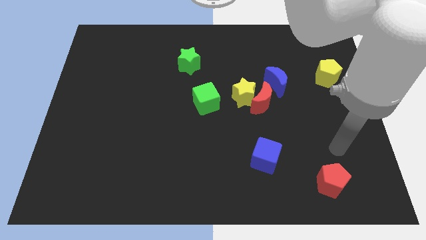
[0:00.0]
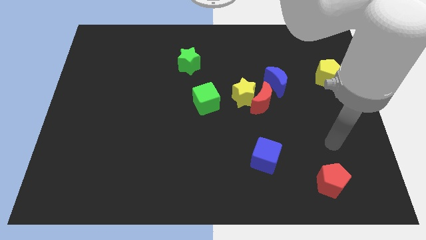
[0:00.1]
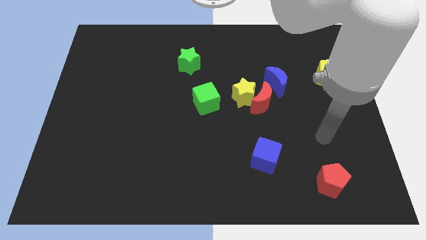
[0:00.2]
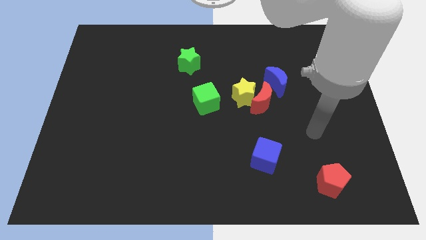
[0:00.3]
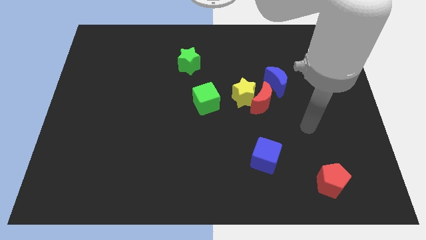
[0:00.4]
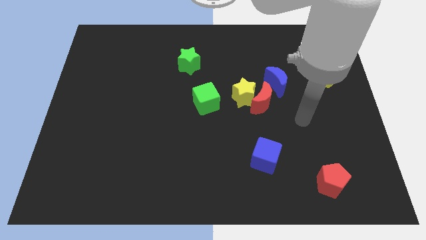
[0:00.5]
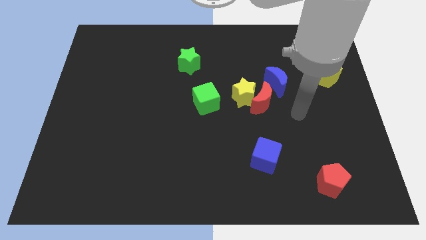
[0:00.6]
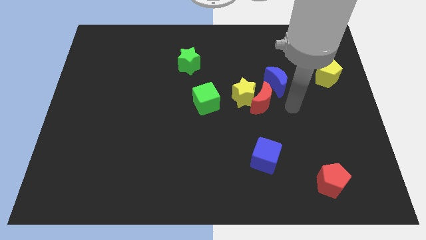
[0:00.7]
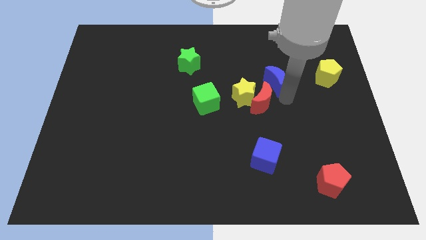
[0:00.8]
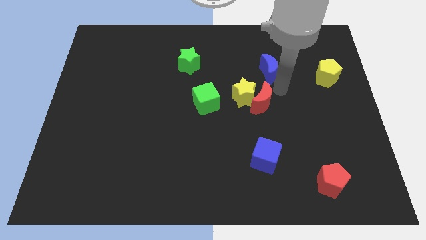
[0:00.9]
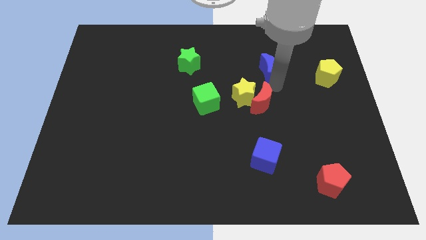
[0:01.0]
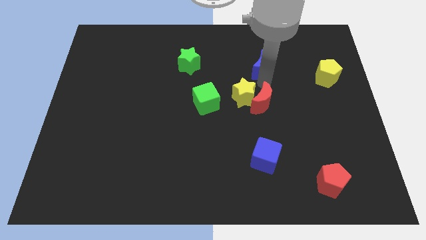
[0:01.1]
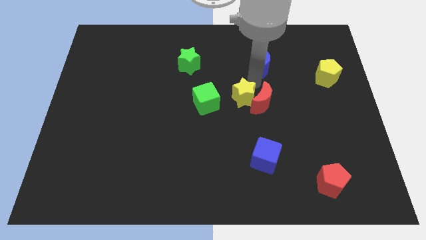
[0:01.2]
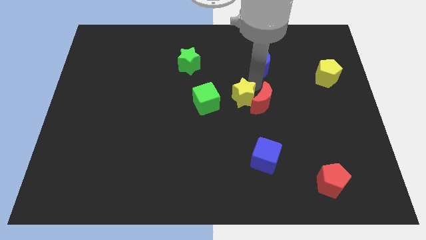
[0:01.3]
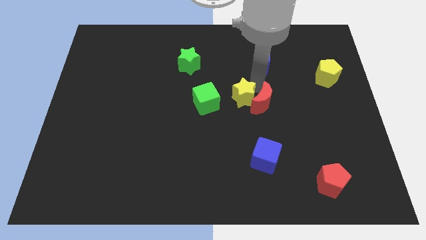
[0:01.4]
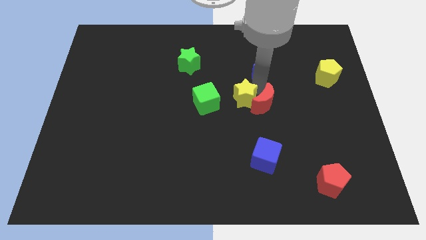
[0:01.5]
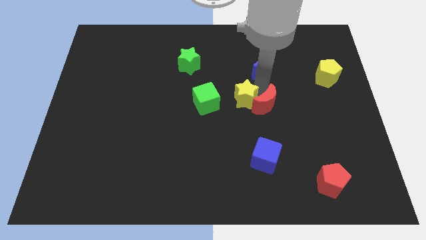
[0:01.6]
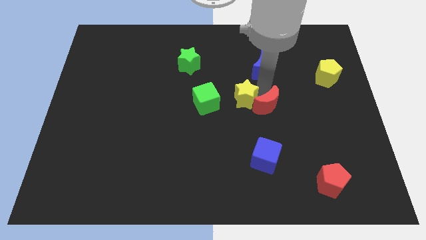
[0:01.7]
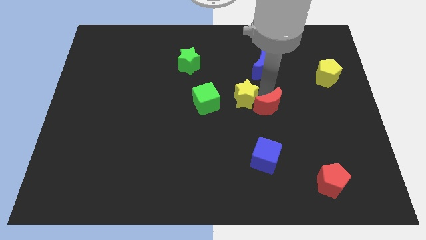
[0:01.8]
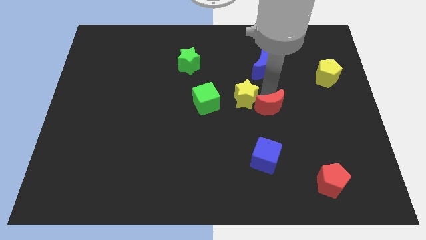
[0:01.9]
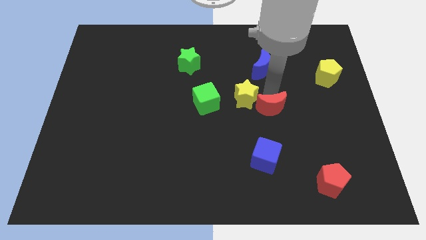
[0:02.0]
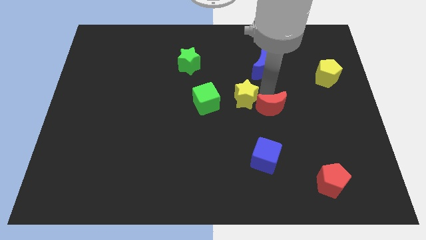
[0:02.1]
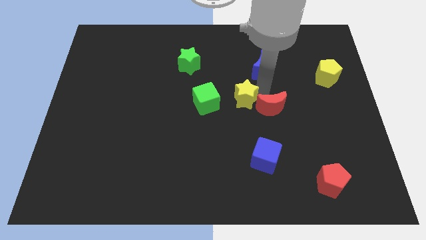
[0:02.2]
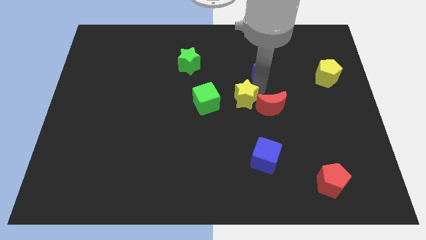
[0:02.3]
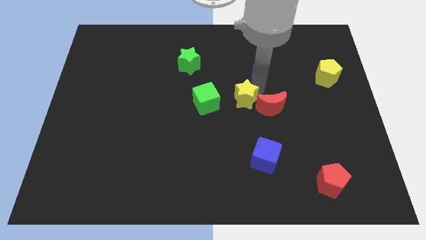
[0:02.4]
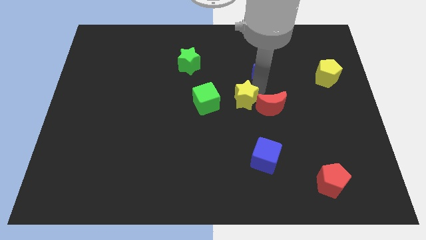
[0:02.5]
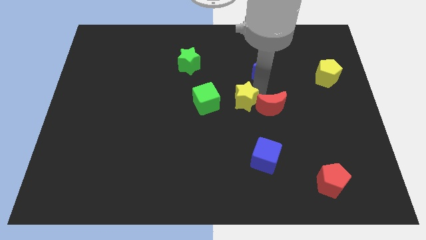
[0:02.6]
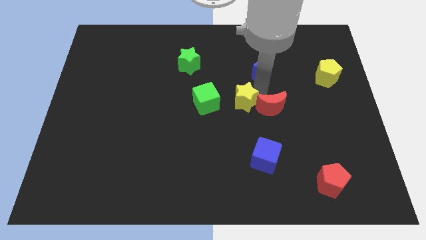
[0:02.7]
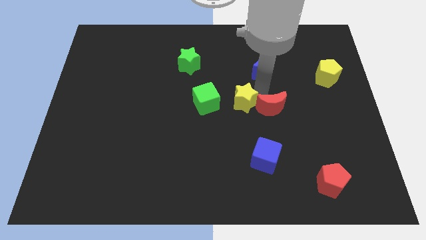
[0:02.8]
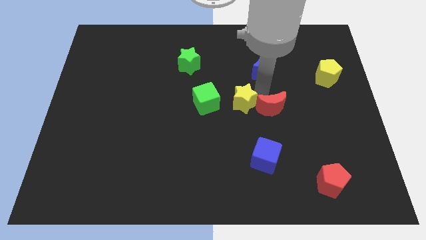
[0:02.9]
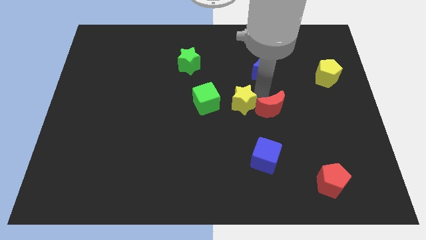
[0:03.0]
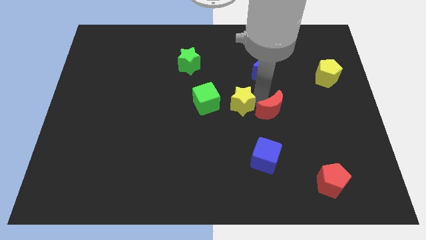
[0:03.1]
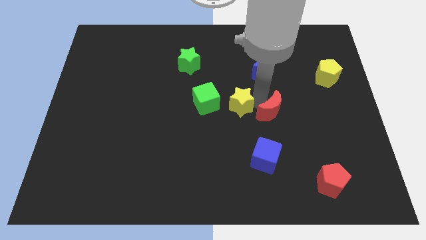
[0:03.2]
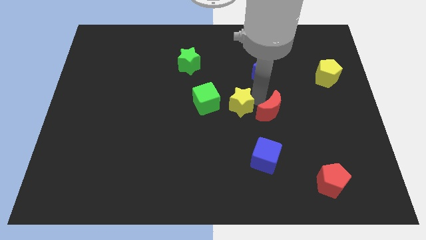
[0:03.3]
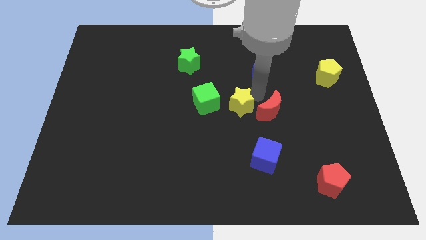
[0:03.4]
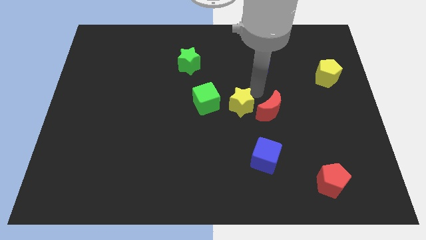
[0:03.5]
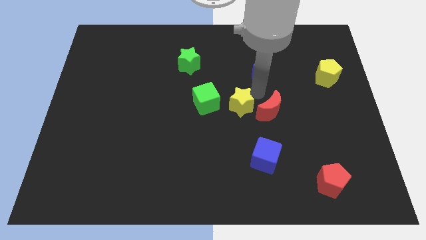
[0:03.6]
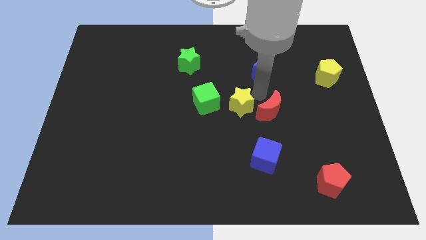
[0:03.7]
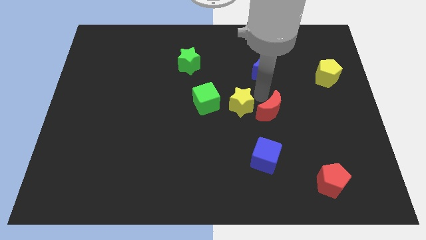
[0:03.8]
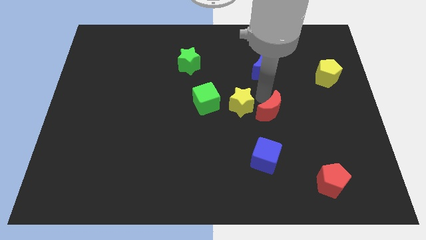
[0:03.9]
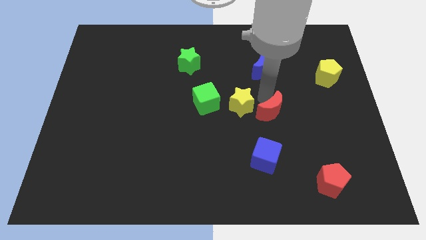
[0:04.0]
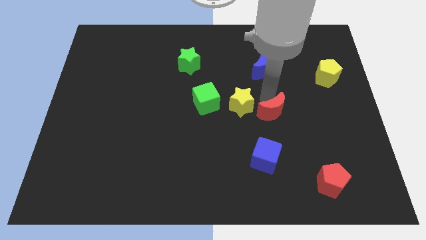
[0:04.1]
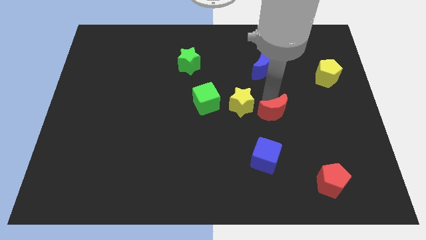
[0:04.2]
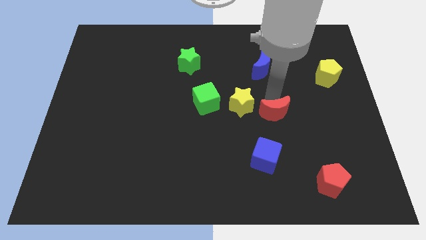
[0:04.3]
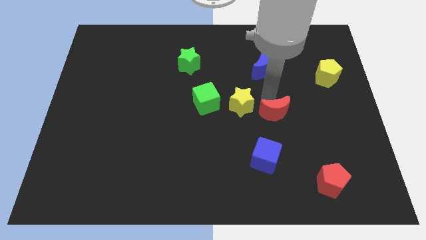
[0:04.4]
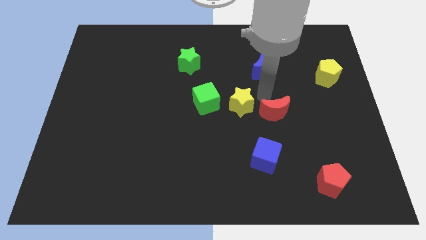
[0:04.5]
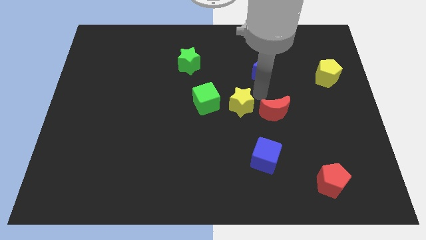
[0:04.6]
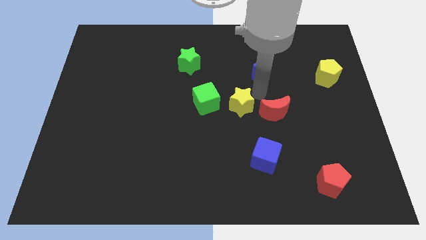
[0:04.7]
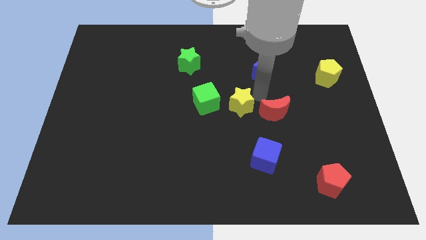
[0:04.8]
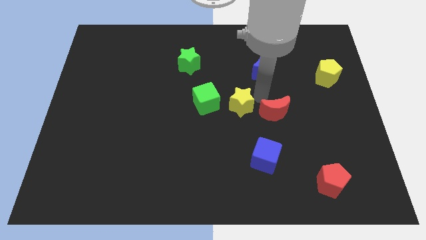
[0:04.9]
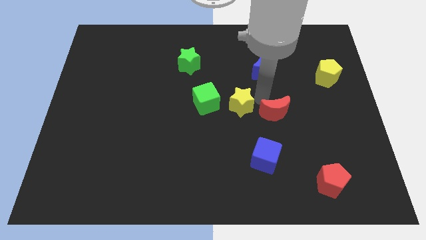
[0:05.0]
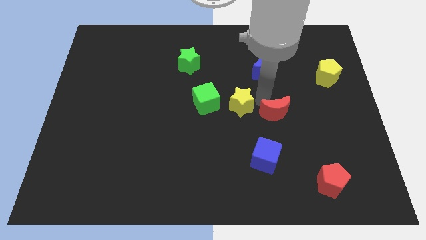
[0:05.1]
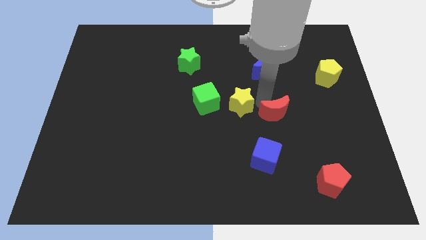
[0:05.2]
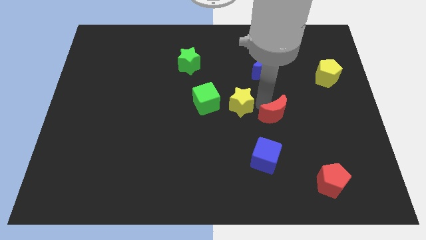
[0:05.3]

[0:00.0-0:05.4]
separate the red moon from the yellow star and blue moon

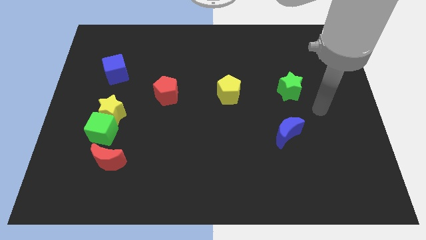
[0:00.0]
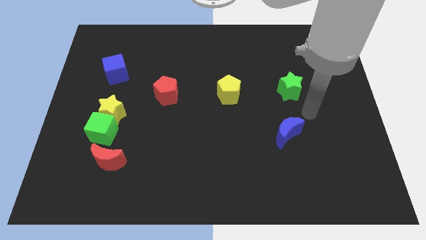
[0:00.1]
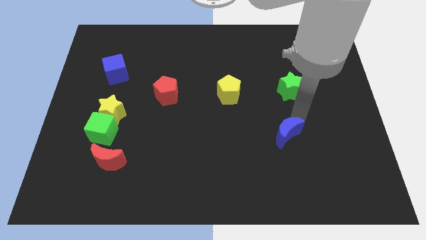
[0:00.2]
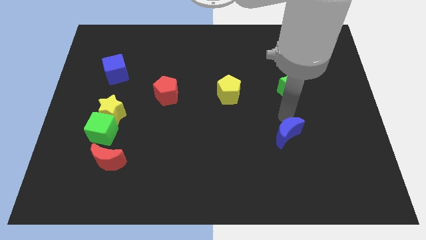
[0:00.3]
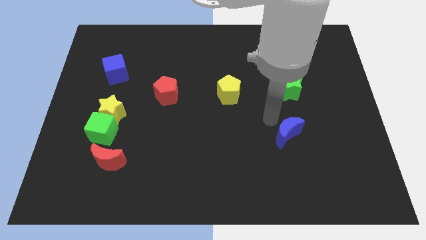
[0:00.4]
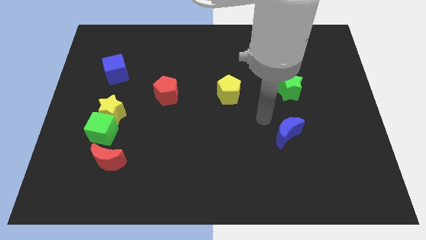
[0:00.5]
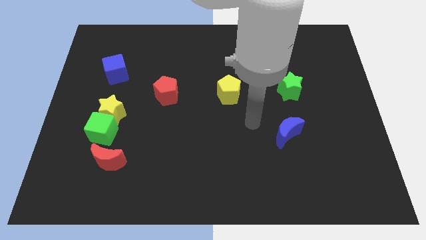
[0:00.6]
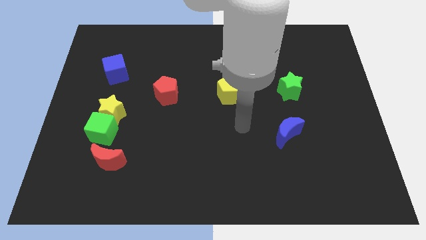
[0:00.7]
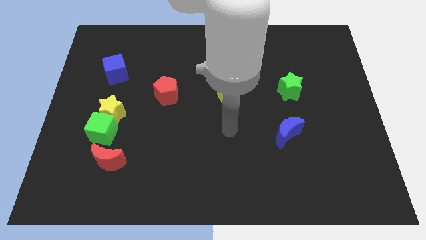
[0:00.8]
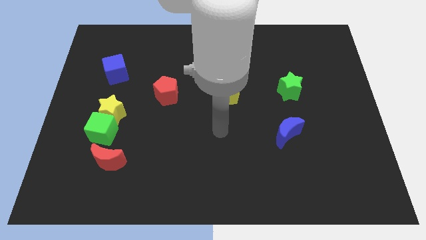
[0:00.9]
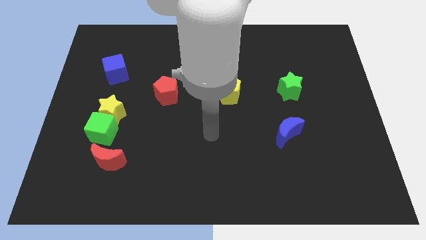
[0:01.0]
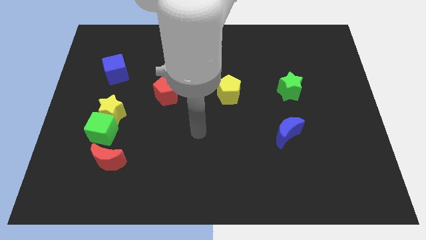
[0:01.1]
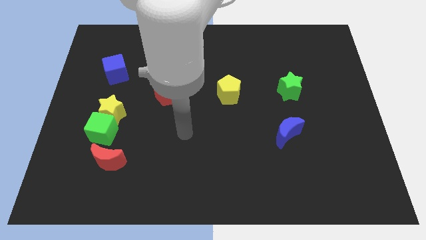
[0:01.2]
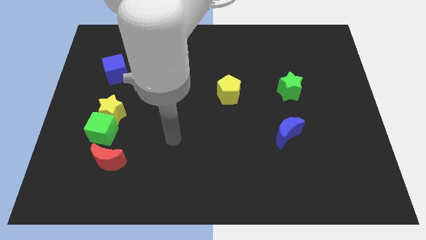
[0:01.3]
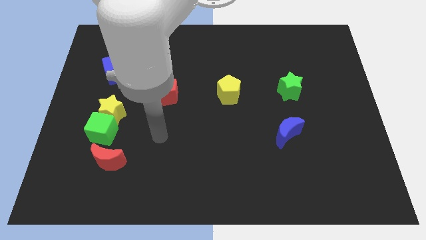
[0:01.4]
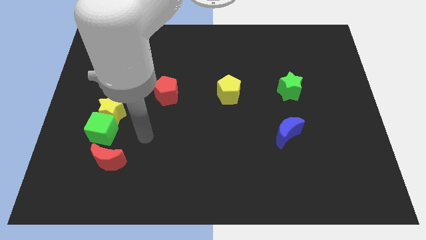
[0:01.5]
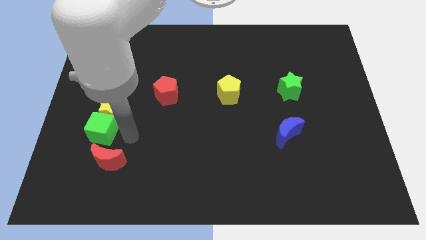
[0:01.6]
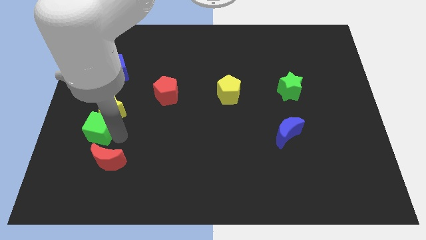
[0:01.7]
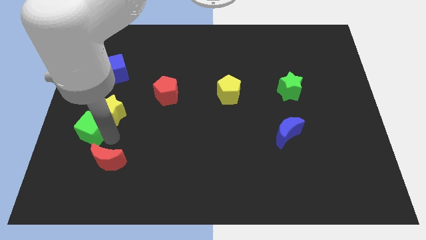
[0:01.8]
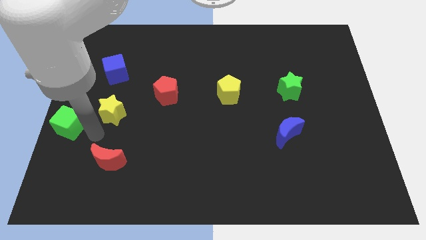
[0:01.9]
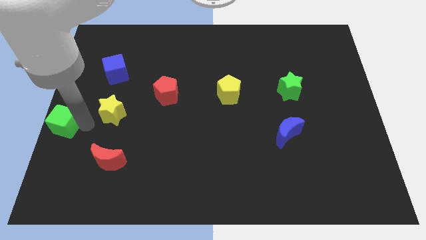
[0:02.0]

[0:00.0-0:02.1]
pull the yellow star apart from the green cube

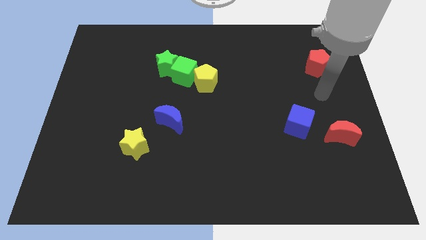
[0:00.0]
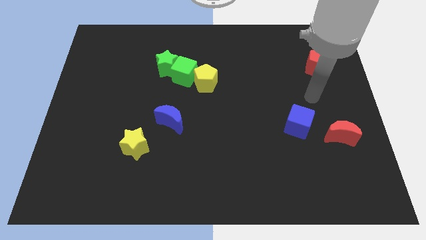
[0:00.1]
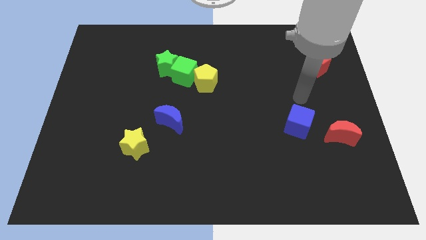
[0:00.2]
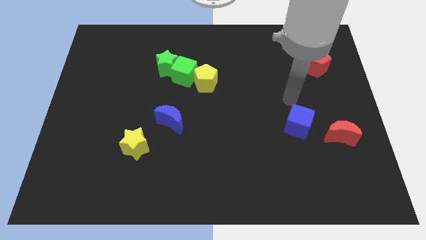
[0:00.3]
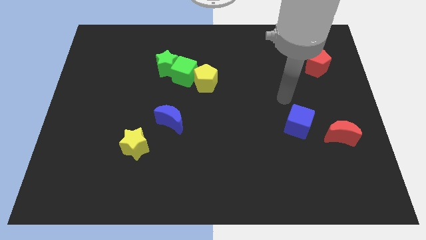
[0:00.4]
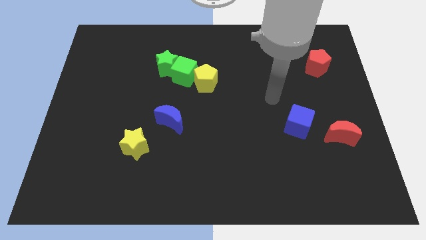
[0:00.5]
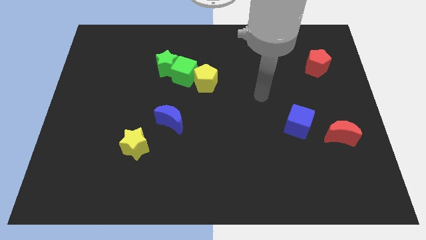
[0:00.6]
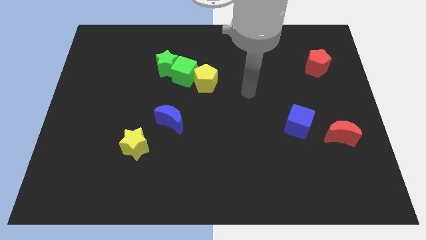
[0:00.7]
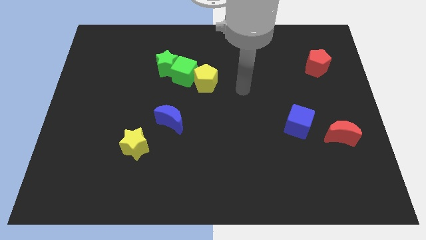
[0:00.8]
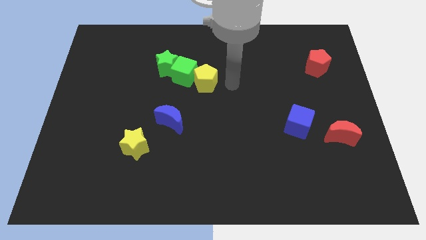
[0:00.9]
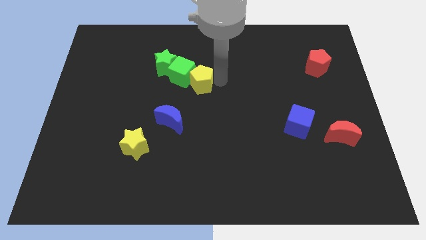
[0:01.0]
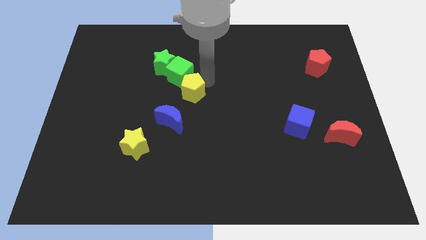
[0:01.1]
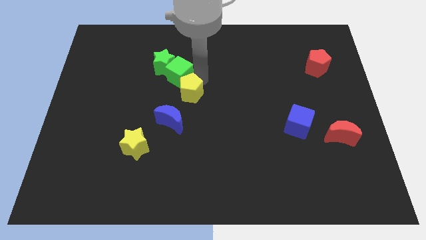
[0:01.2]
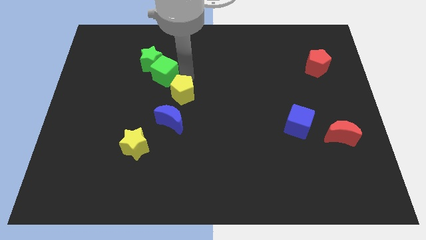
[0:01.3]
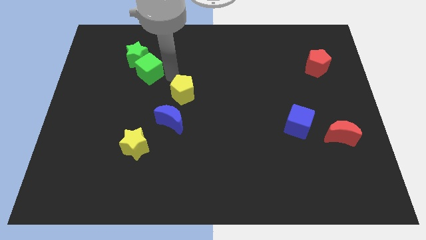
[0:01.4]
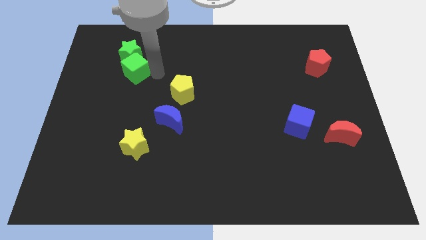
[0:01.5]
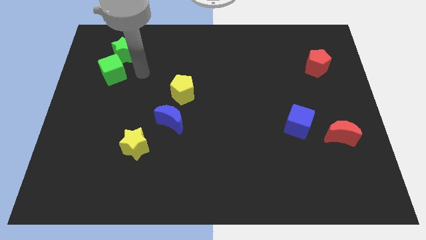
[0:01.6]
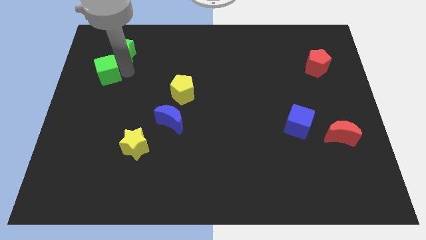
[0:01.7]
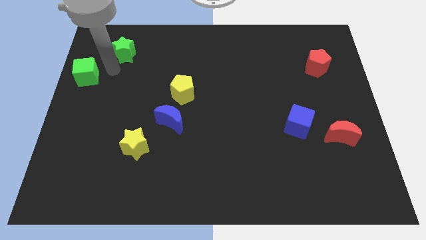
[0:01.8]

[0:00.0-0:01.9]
move the green star away from the green cube
